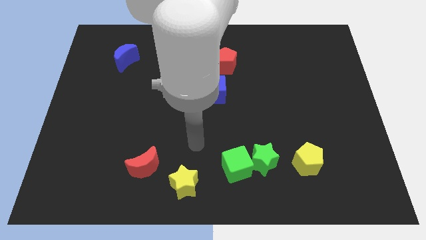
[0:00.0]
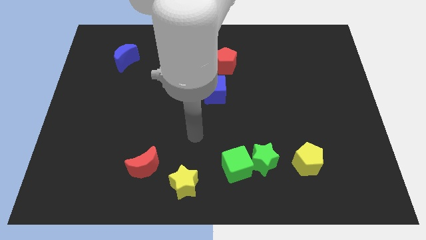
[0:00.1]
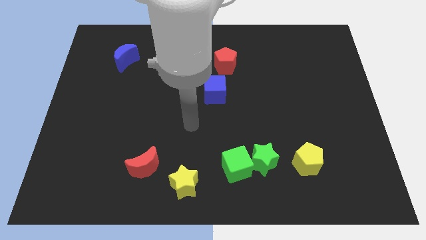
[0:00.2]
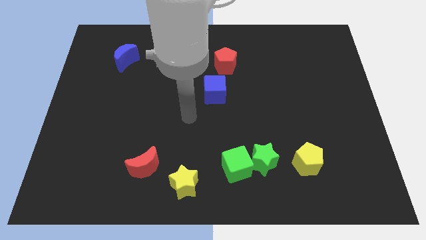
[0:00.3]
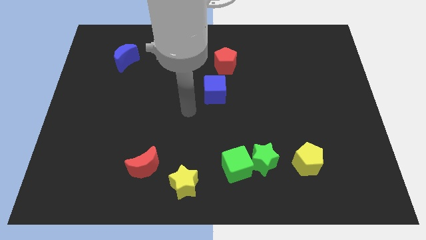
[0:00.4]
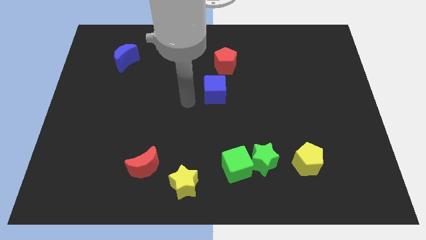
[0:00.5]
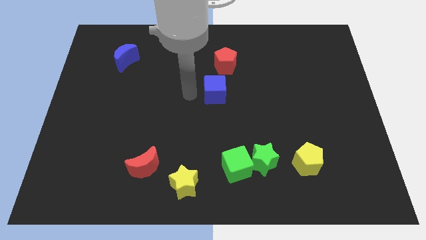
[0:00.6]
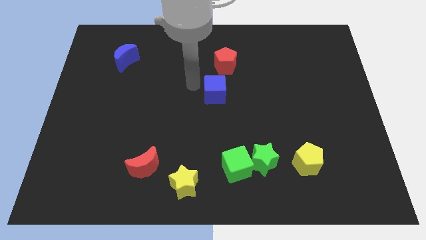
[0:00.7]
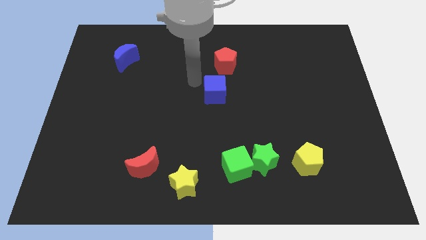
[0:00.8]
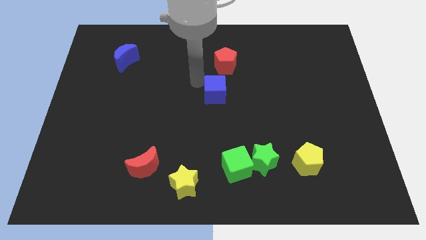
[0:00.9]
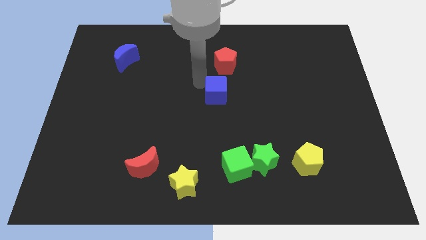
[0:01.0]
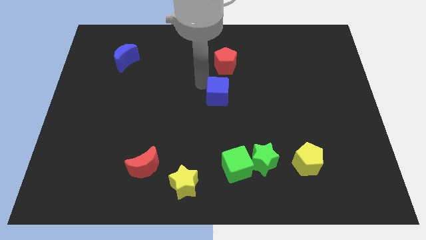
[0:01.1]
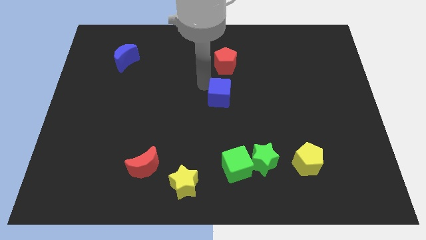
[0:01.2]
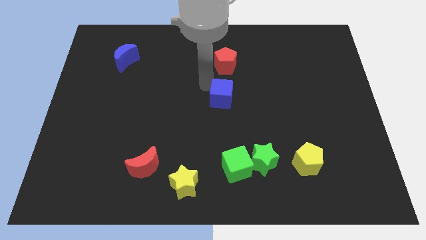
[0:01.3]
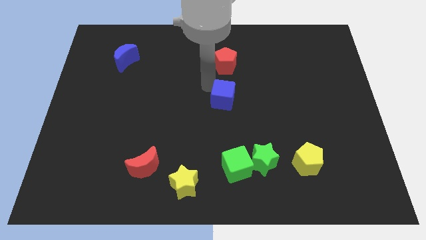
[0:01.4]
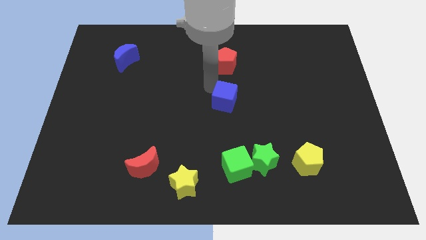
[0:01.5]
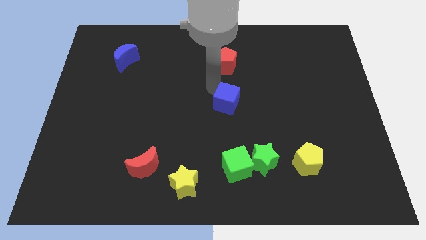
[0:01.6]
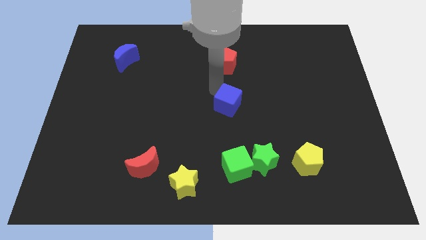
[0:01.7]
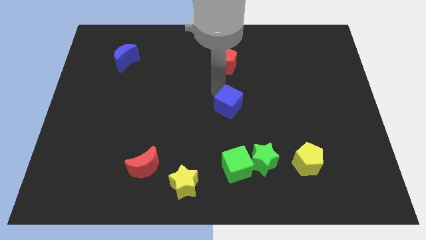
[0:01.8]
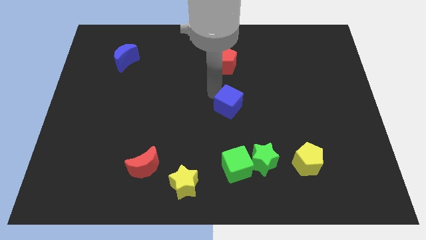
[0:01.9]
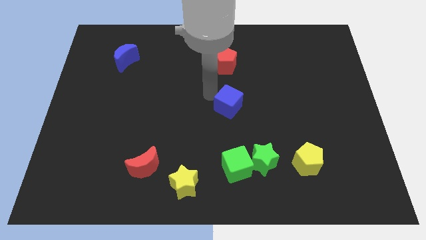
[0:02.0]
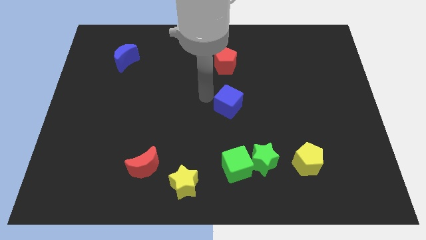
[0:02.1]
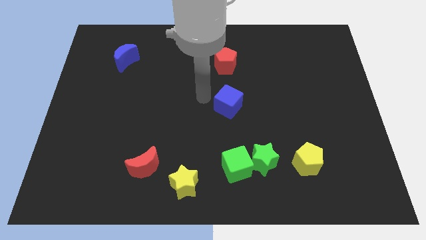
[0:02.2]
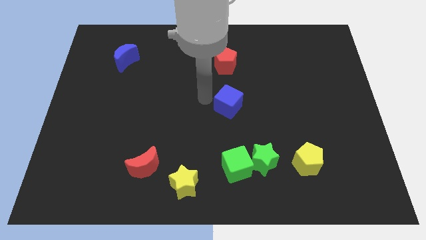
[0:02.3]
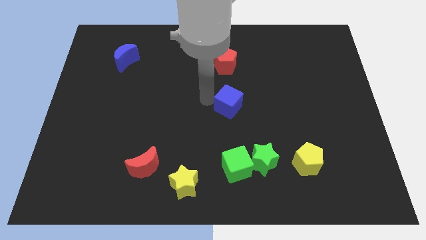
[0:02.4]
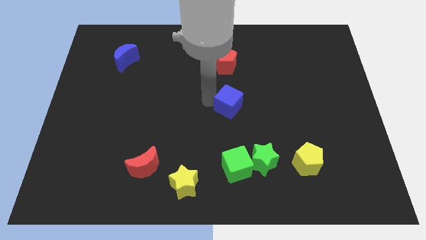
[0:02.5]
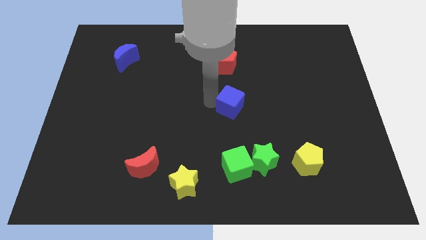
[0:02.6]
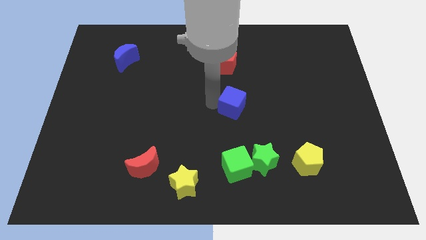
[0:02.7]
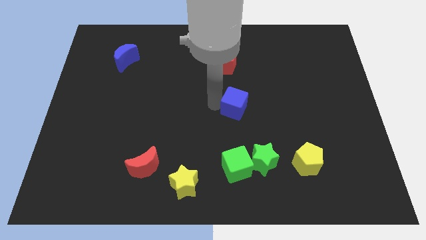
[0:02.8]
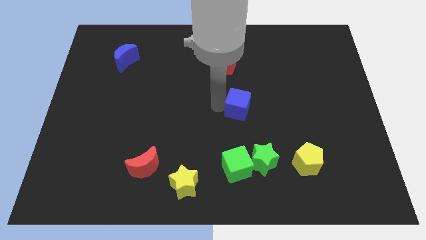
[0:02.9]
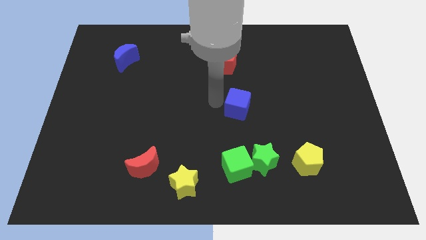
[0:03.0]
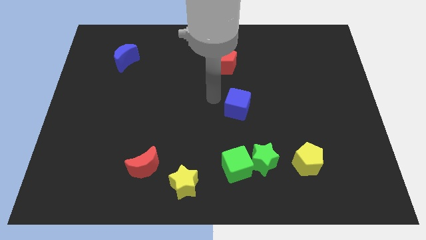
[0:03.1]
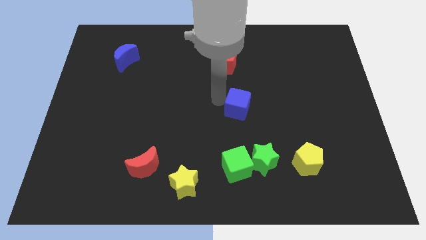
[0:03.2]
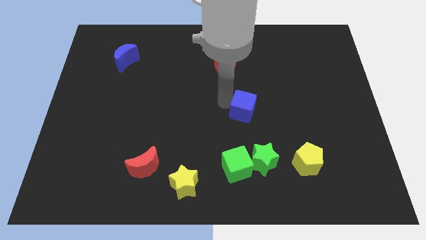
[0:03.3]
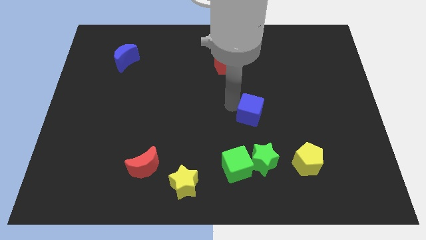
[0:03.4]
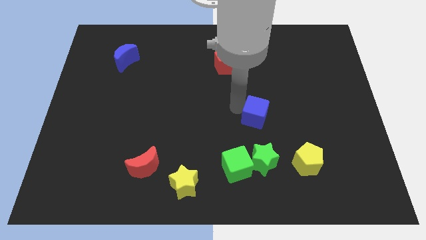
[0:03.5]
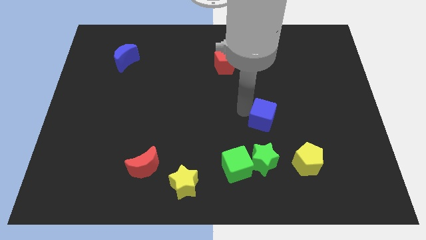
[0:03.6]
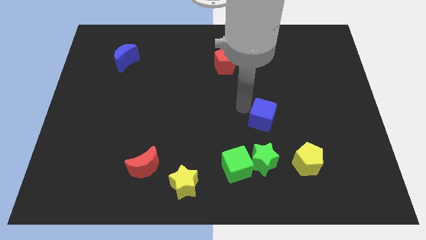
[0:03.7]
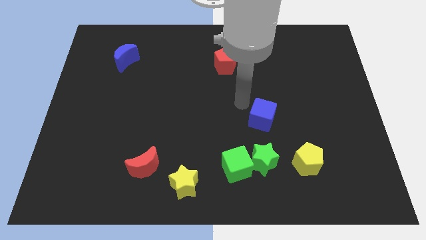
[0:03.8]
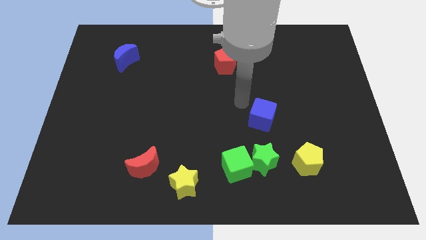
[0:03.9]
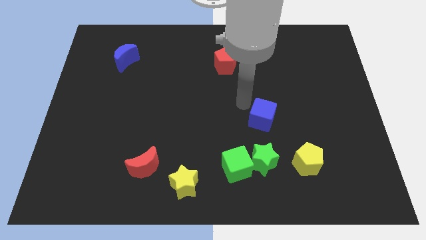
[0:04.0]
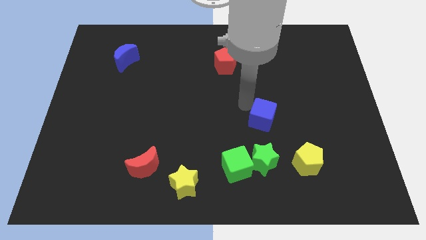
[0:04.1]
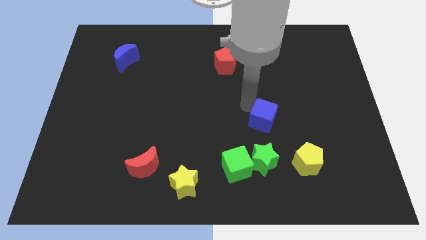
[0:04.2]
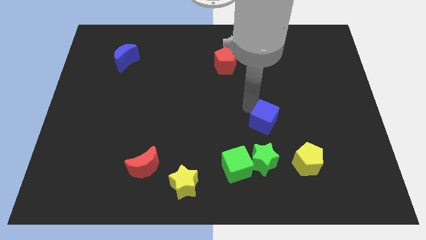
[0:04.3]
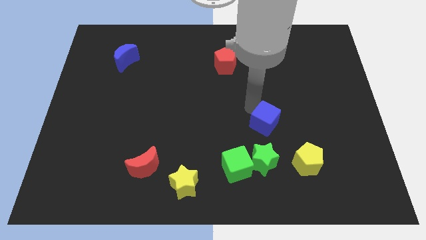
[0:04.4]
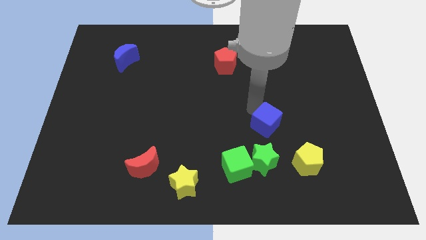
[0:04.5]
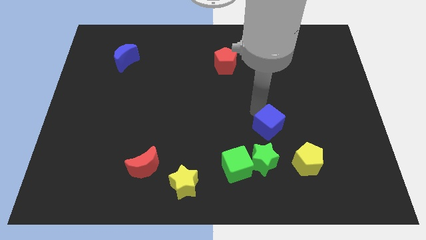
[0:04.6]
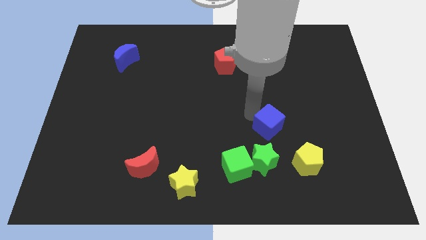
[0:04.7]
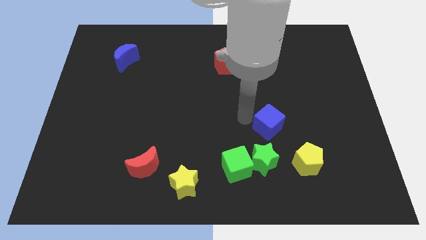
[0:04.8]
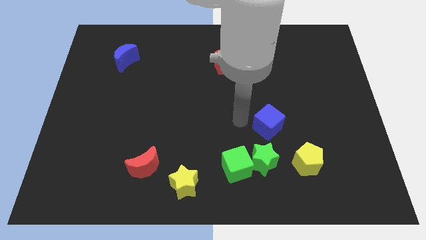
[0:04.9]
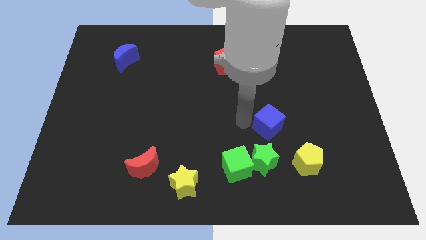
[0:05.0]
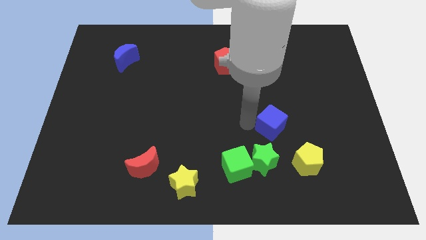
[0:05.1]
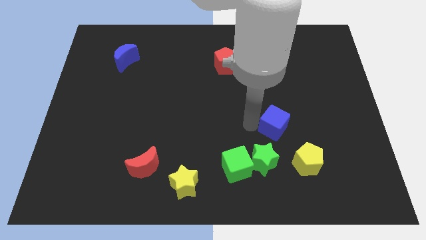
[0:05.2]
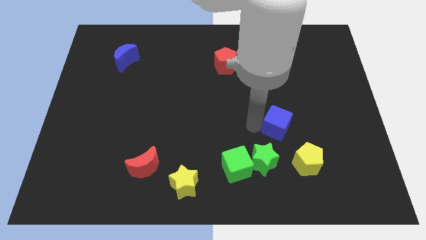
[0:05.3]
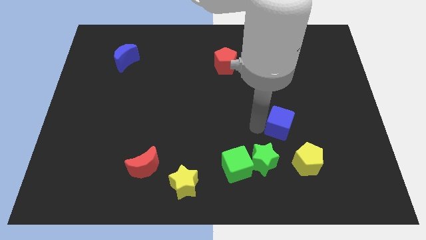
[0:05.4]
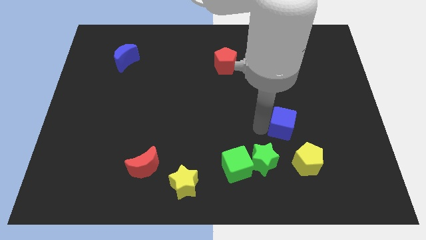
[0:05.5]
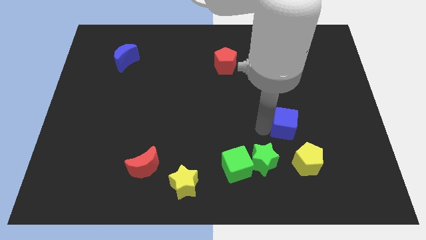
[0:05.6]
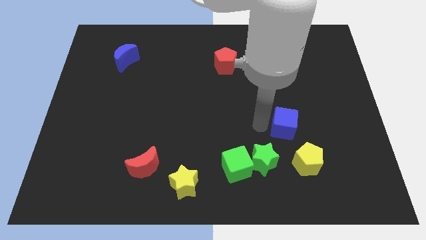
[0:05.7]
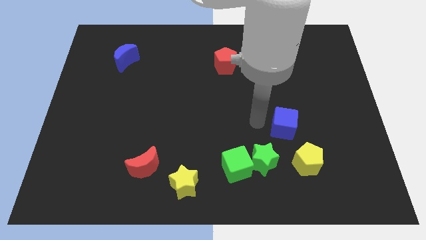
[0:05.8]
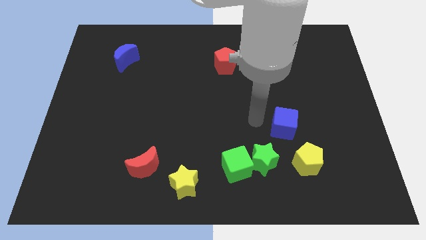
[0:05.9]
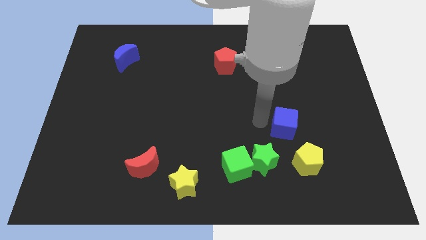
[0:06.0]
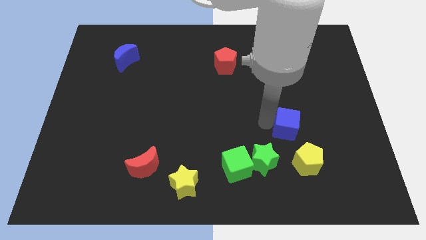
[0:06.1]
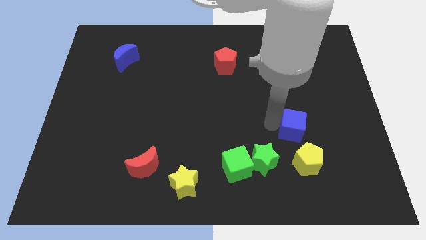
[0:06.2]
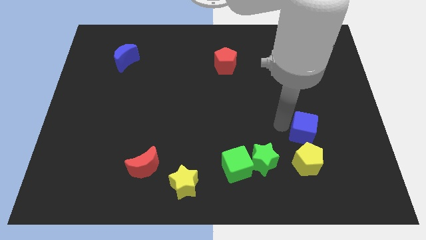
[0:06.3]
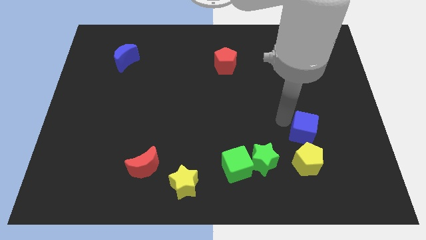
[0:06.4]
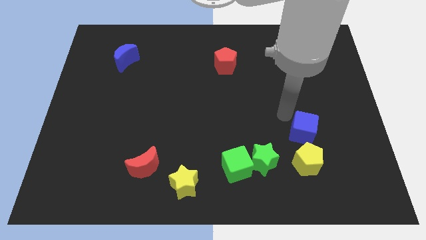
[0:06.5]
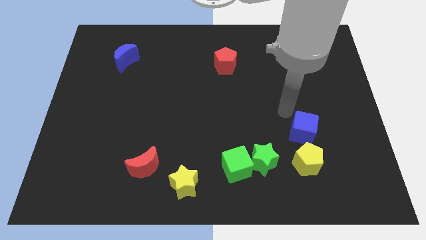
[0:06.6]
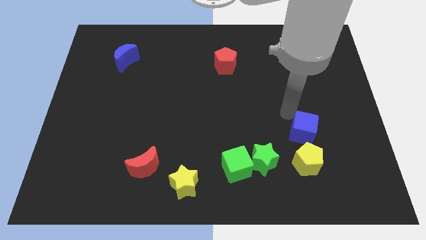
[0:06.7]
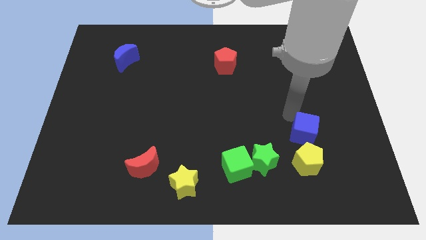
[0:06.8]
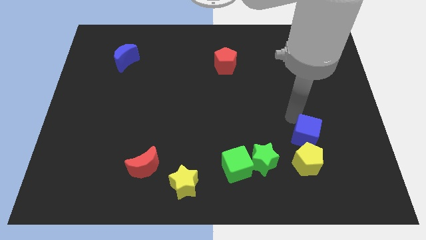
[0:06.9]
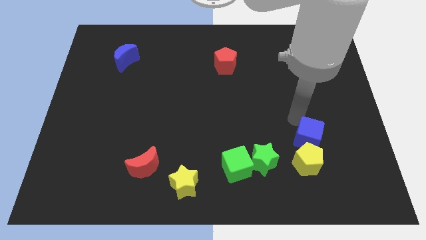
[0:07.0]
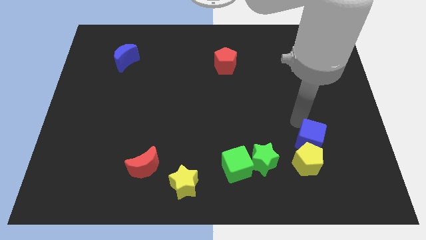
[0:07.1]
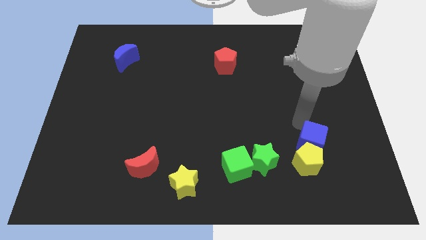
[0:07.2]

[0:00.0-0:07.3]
move the blue cube to the right side of the green star
